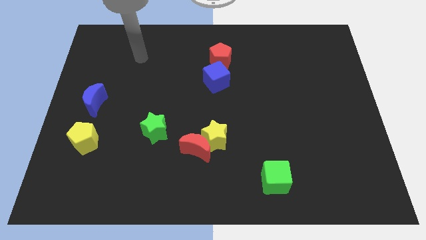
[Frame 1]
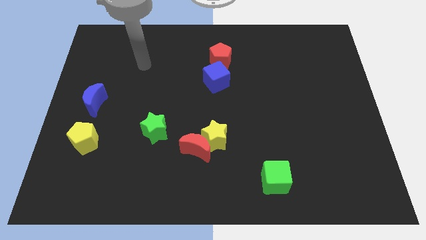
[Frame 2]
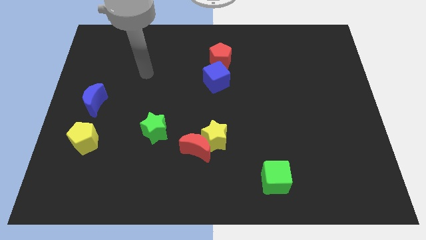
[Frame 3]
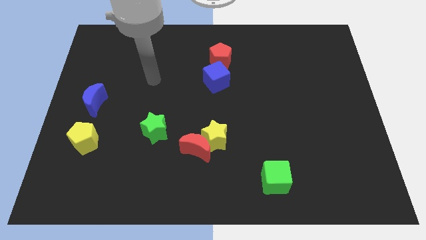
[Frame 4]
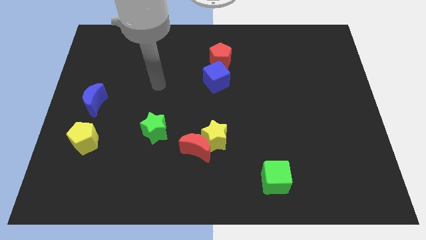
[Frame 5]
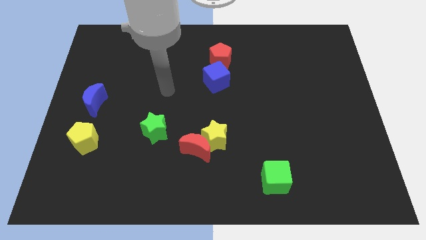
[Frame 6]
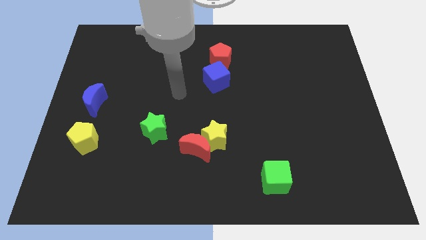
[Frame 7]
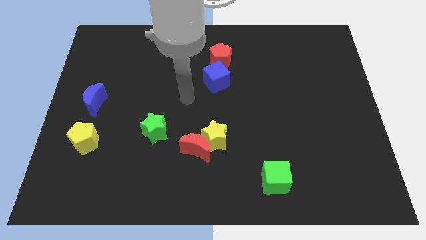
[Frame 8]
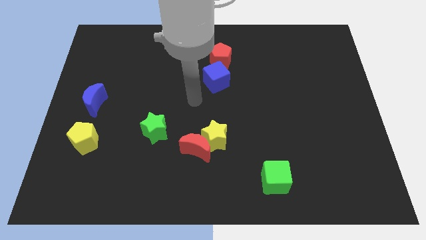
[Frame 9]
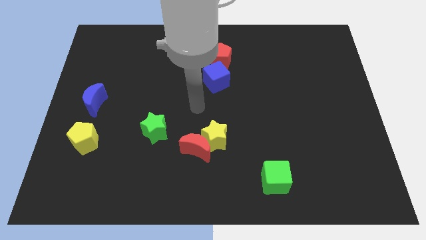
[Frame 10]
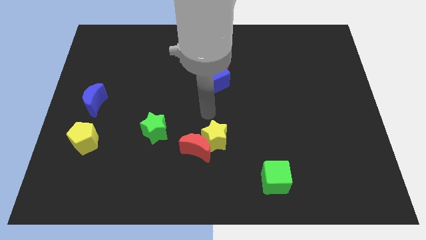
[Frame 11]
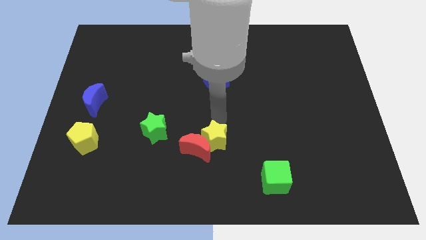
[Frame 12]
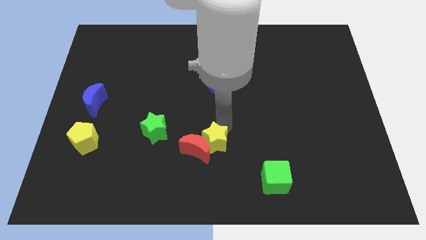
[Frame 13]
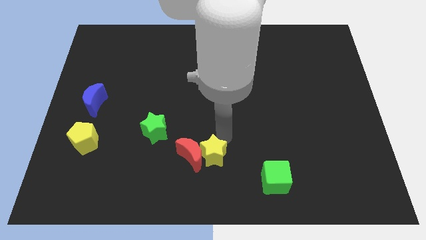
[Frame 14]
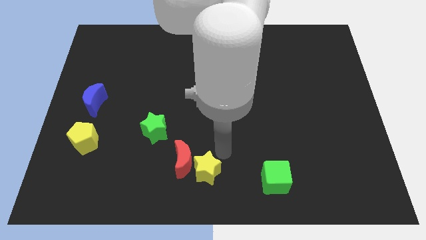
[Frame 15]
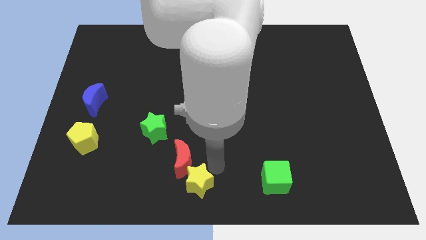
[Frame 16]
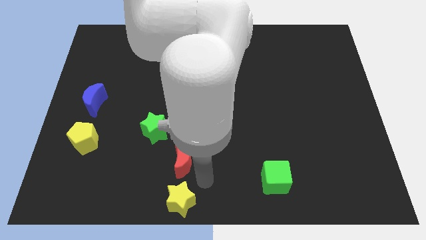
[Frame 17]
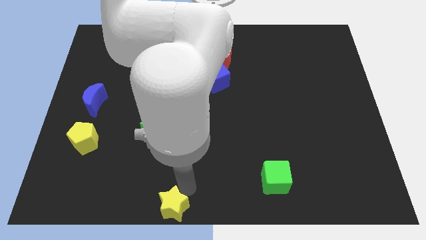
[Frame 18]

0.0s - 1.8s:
separate the red moon from the yellow star

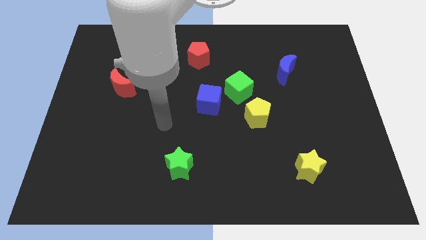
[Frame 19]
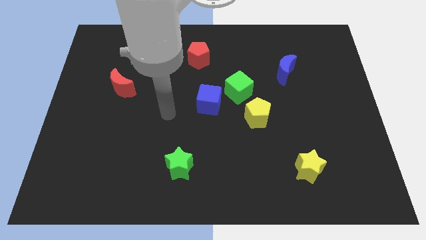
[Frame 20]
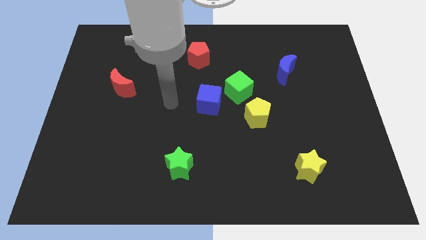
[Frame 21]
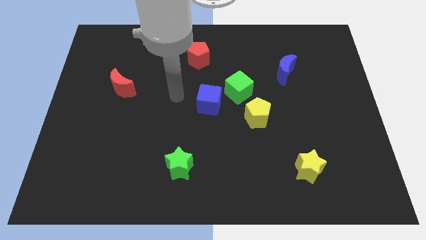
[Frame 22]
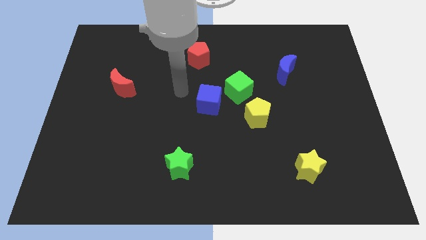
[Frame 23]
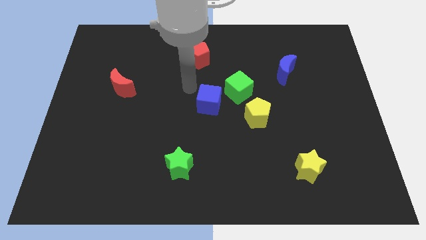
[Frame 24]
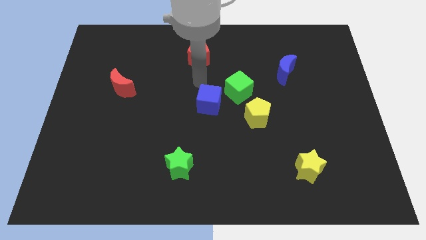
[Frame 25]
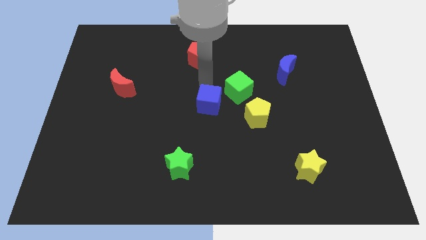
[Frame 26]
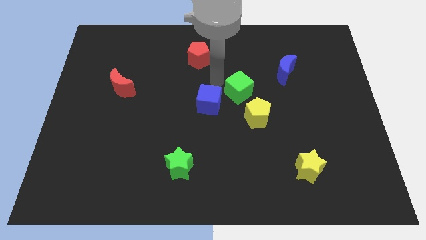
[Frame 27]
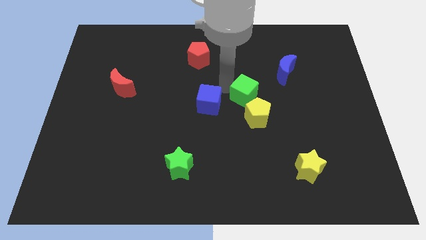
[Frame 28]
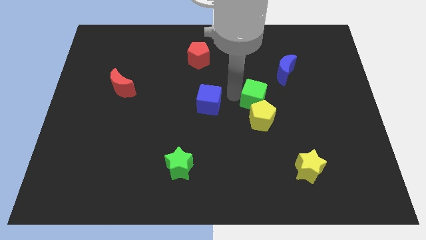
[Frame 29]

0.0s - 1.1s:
separate the blue cube from the green cube

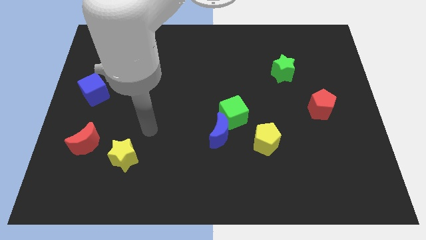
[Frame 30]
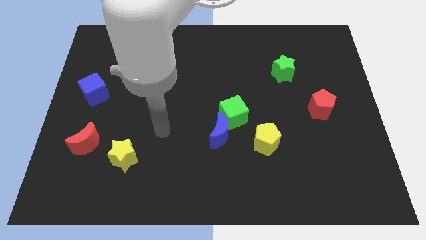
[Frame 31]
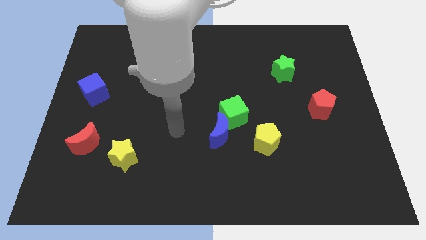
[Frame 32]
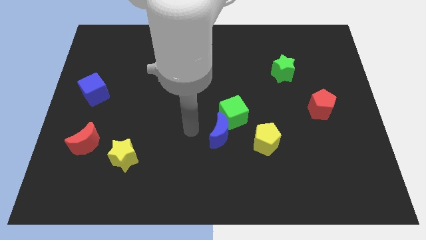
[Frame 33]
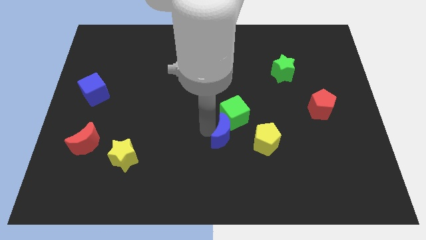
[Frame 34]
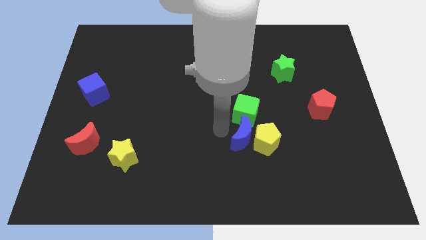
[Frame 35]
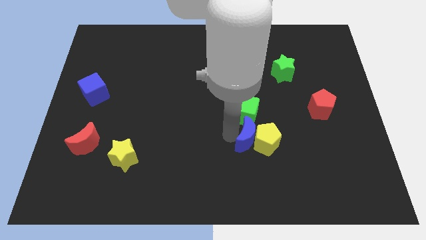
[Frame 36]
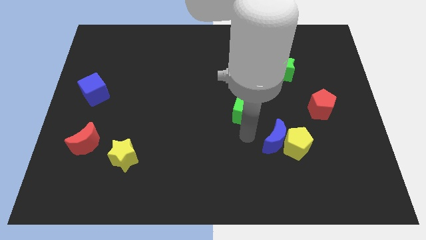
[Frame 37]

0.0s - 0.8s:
separate the green cube from the blue moon and yellow pentagon

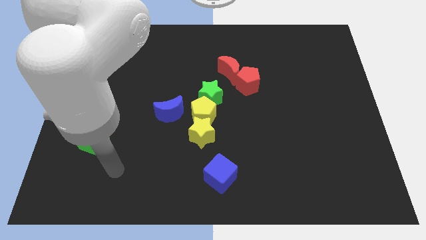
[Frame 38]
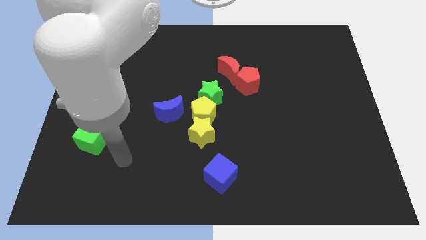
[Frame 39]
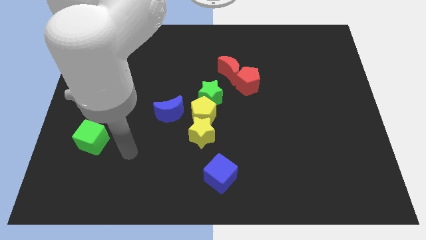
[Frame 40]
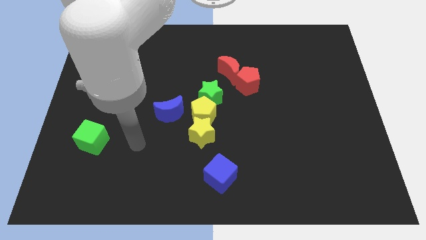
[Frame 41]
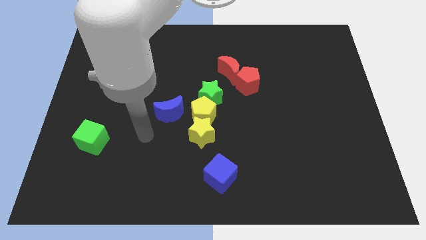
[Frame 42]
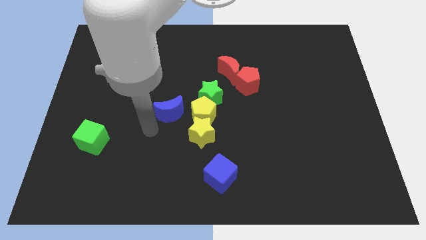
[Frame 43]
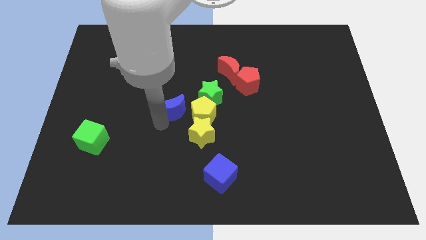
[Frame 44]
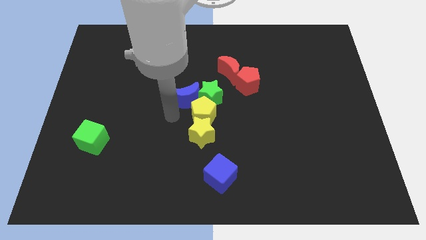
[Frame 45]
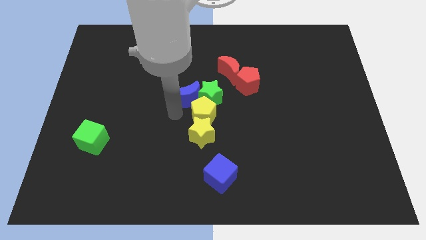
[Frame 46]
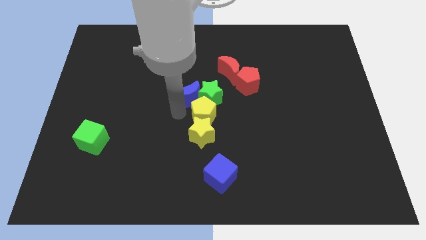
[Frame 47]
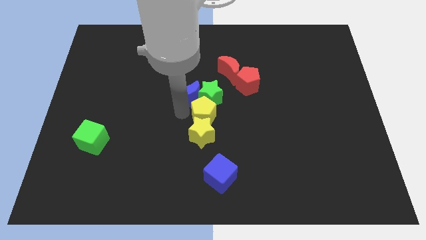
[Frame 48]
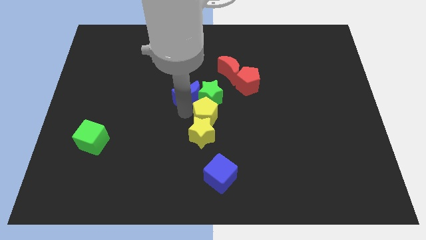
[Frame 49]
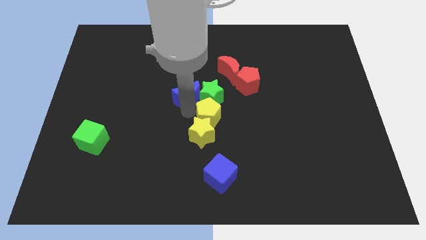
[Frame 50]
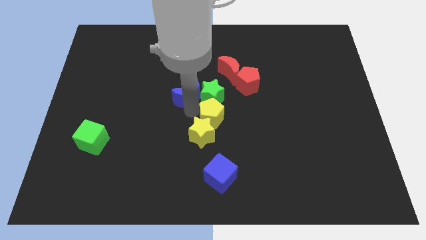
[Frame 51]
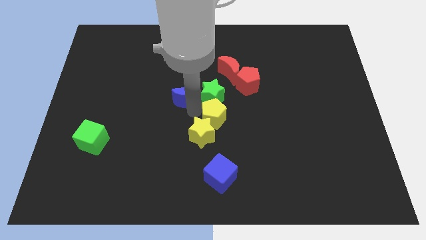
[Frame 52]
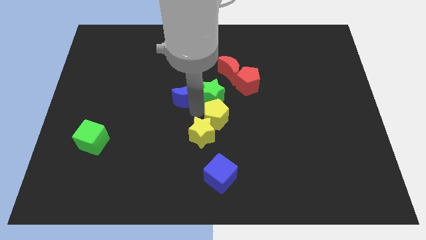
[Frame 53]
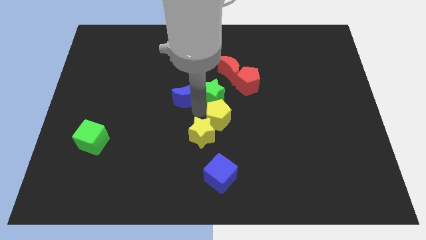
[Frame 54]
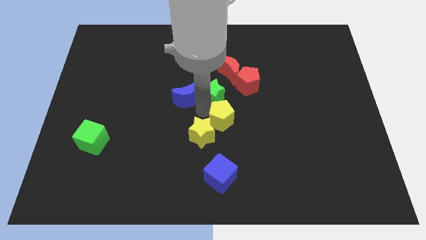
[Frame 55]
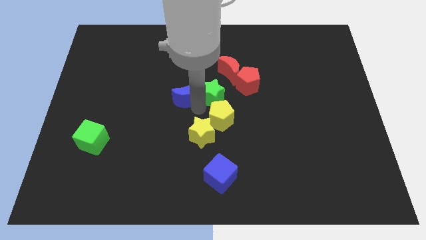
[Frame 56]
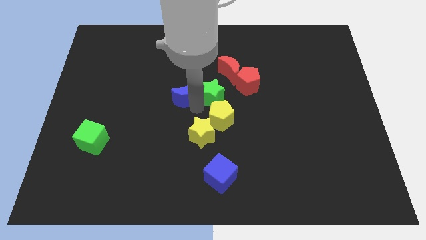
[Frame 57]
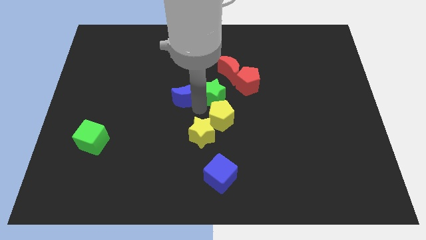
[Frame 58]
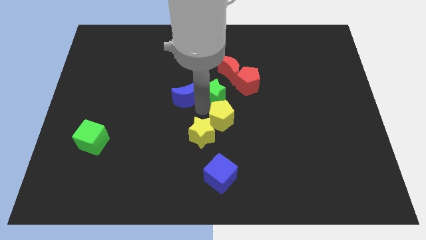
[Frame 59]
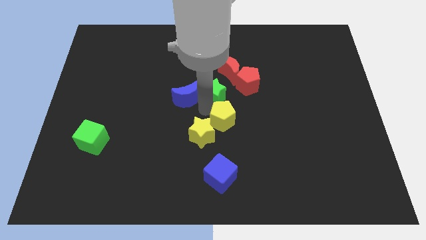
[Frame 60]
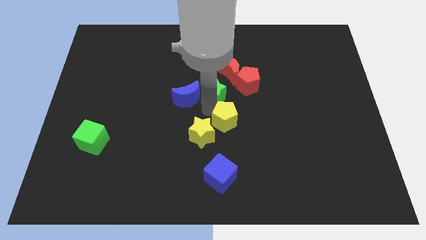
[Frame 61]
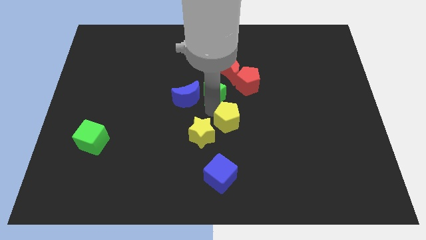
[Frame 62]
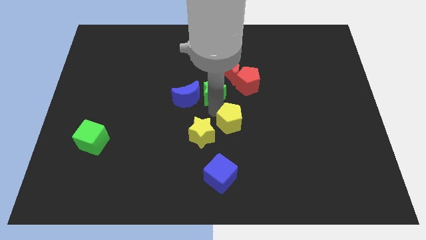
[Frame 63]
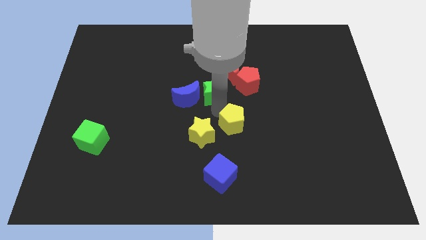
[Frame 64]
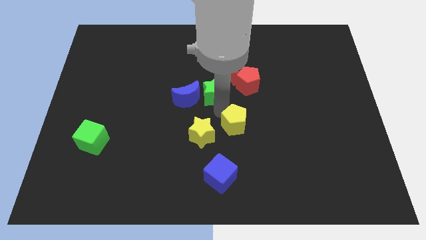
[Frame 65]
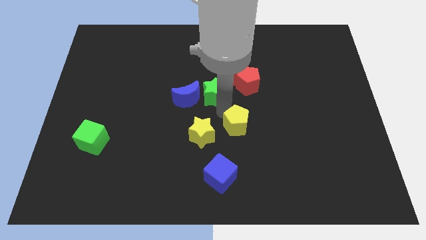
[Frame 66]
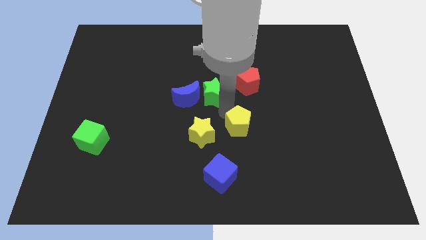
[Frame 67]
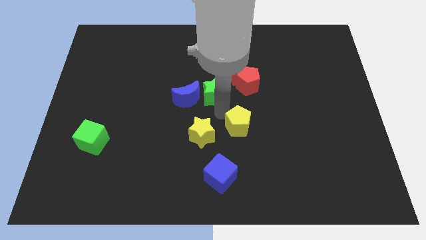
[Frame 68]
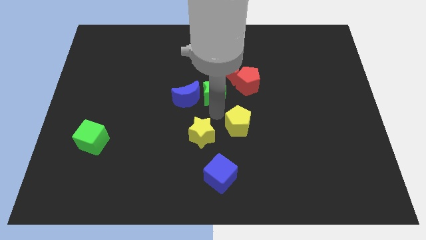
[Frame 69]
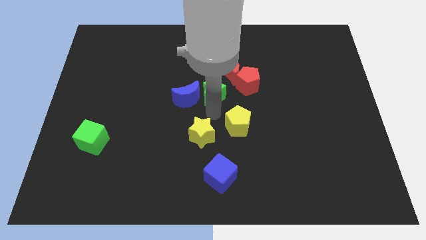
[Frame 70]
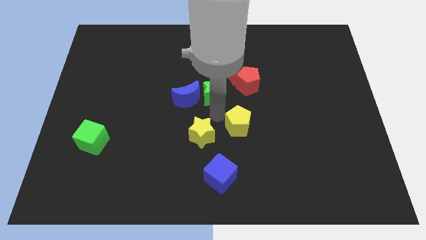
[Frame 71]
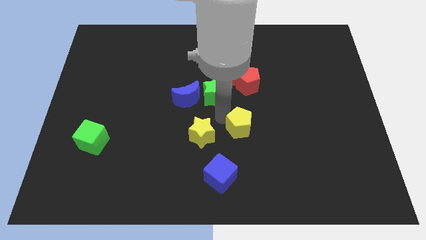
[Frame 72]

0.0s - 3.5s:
separate the yellow pentagon from the yellow star, green star, and blue moon

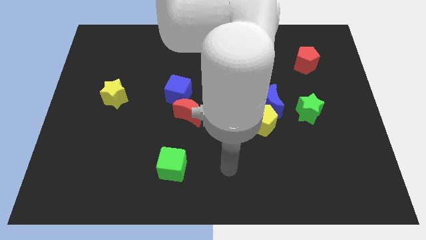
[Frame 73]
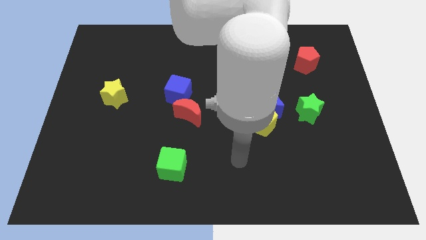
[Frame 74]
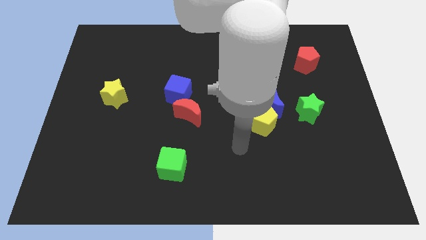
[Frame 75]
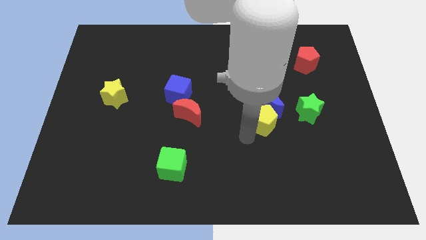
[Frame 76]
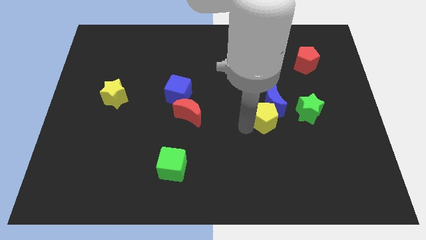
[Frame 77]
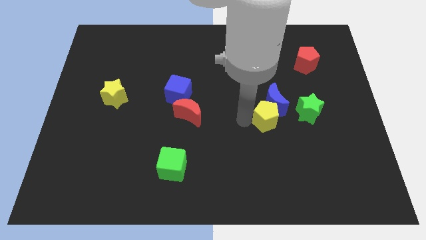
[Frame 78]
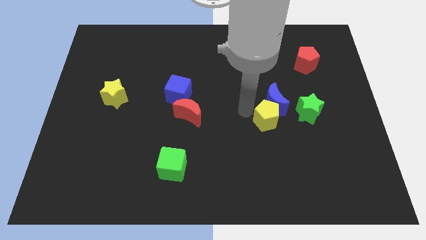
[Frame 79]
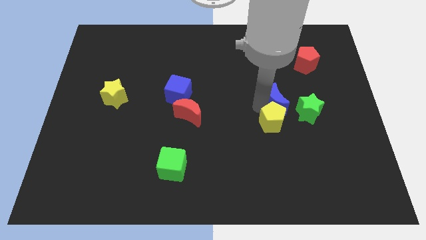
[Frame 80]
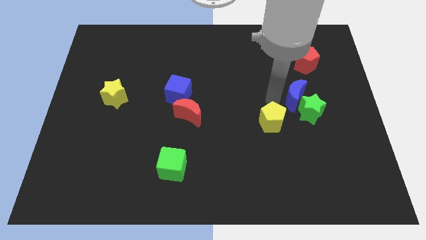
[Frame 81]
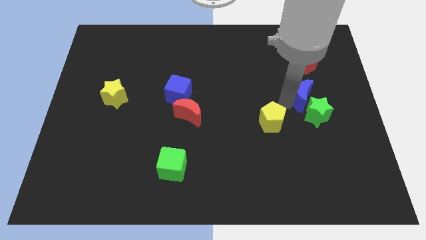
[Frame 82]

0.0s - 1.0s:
pull the yellow pentagon apart from the blue moon

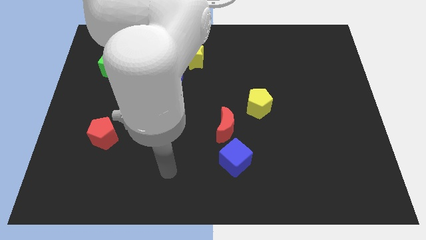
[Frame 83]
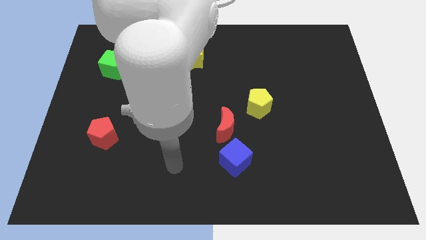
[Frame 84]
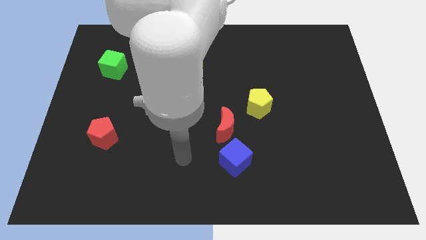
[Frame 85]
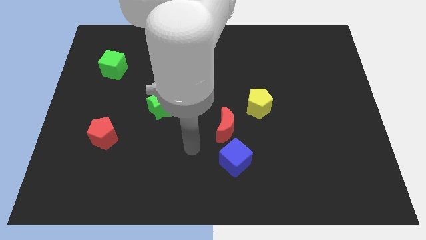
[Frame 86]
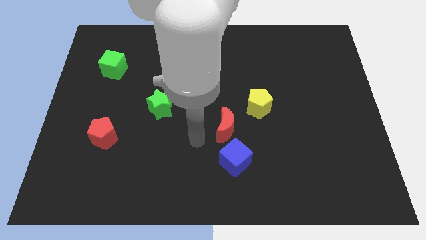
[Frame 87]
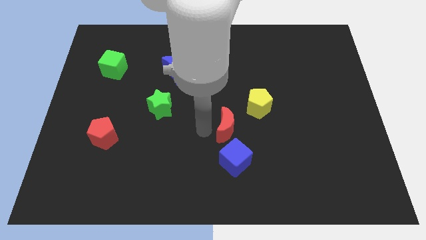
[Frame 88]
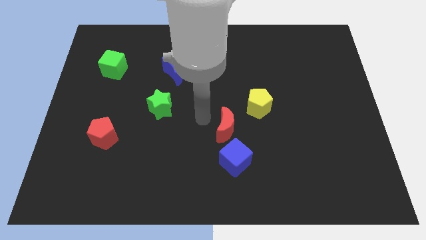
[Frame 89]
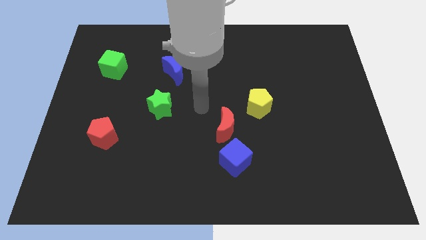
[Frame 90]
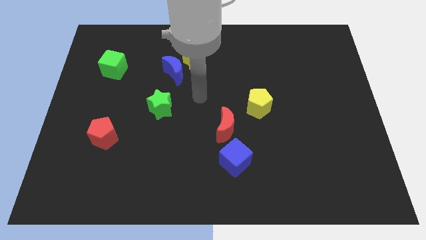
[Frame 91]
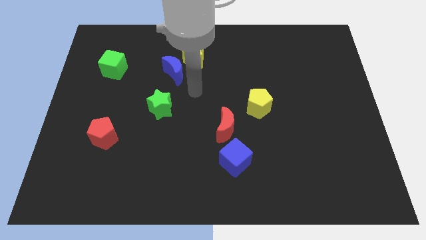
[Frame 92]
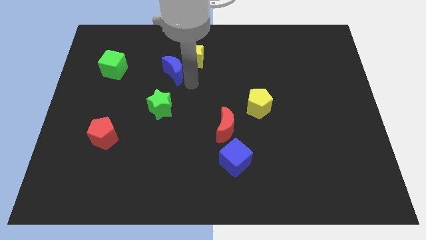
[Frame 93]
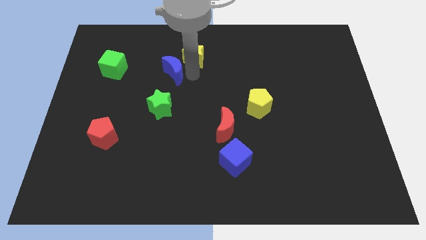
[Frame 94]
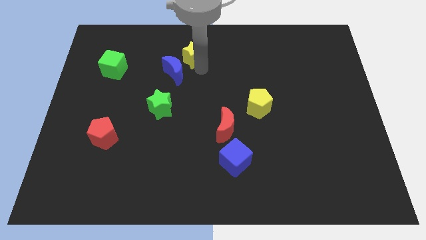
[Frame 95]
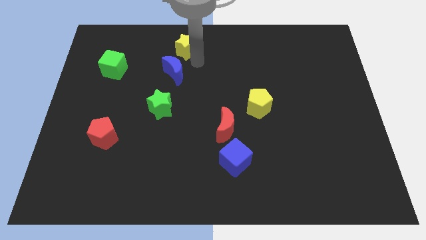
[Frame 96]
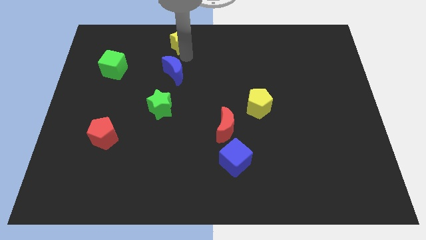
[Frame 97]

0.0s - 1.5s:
pull the blue moon apart from the yellow star
